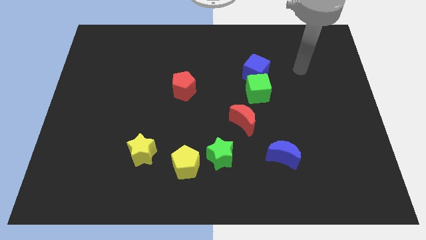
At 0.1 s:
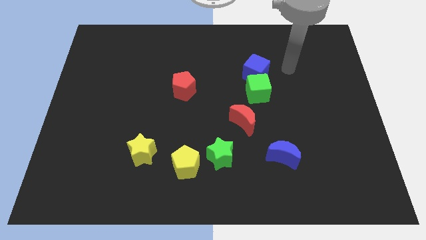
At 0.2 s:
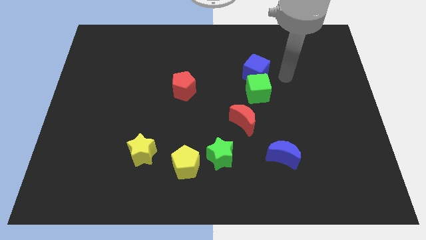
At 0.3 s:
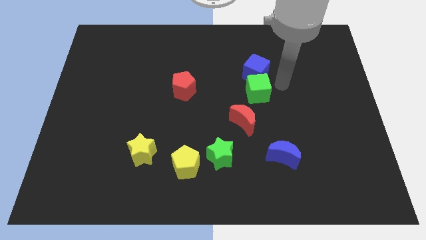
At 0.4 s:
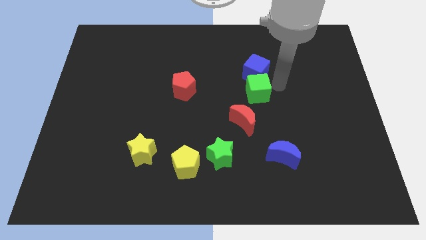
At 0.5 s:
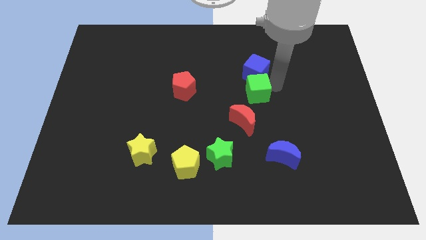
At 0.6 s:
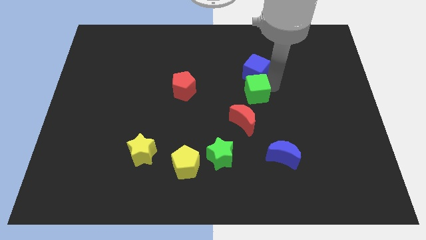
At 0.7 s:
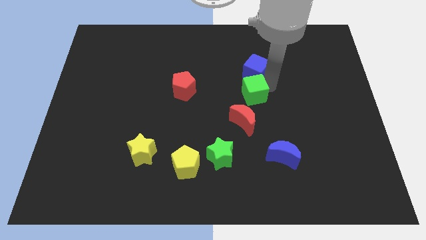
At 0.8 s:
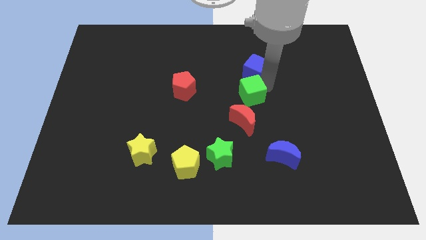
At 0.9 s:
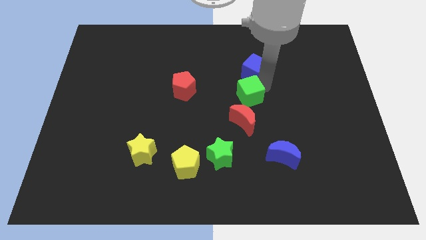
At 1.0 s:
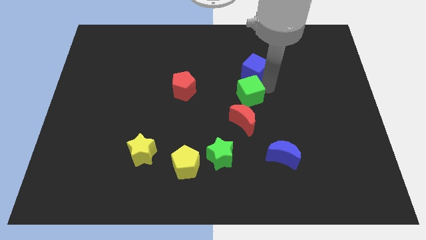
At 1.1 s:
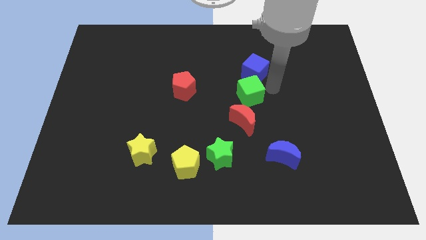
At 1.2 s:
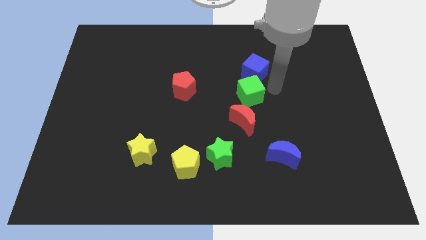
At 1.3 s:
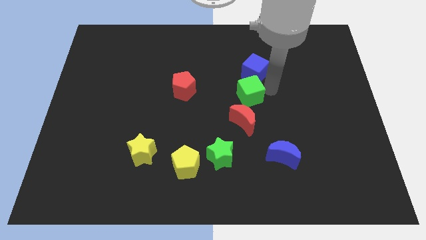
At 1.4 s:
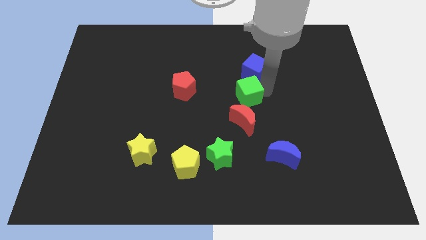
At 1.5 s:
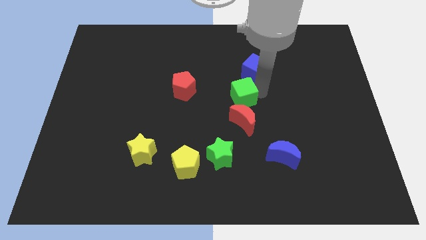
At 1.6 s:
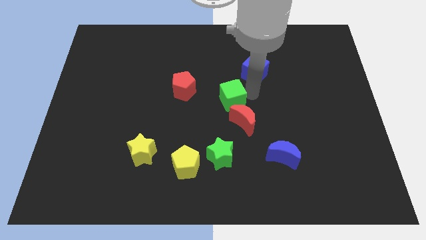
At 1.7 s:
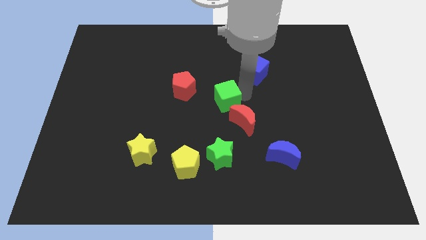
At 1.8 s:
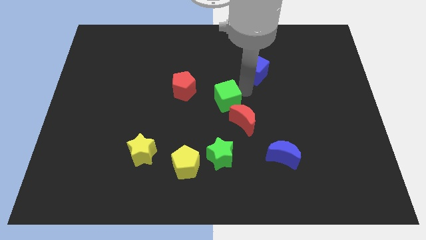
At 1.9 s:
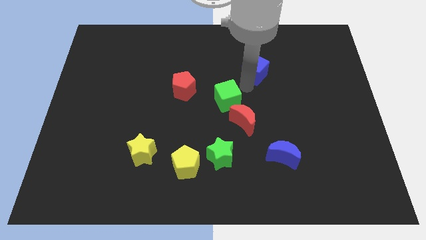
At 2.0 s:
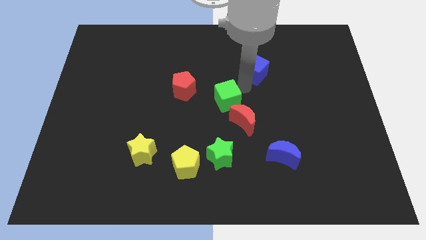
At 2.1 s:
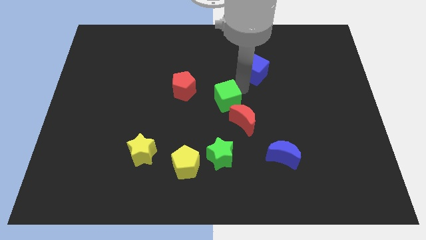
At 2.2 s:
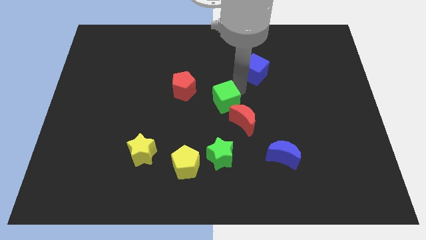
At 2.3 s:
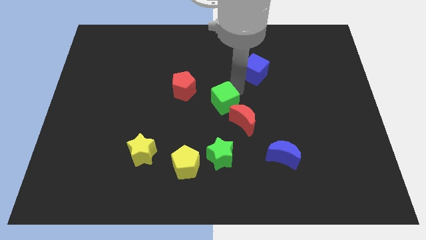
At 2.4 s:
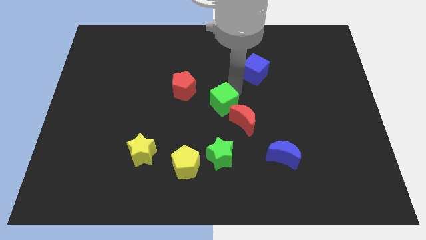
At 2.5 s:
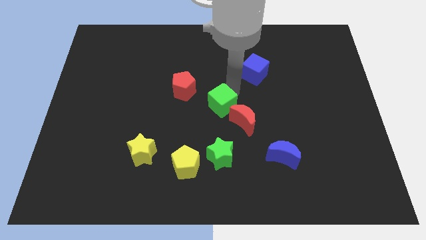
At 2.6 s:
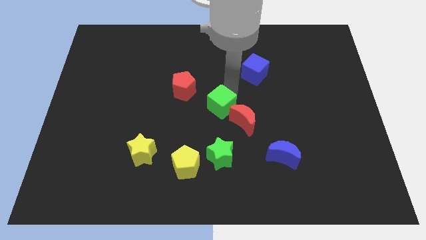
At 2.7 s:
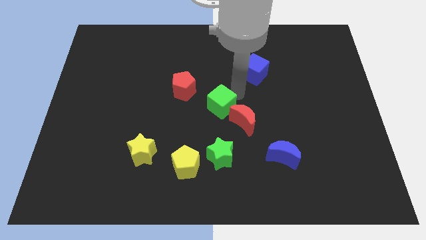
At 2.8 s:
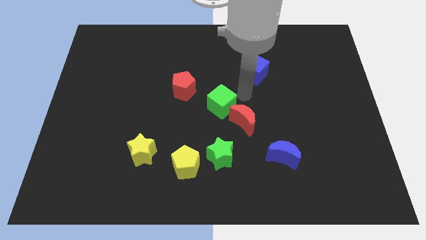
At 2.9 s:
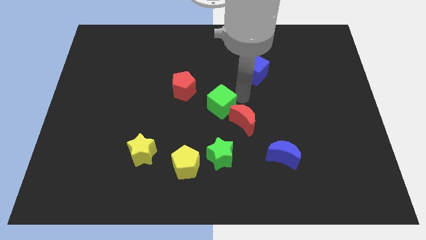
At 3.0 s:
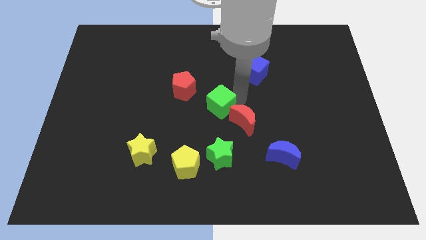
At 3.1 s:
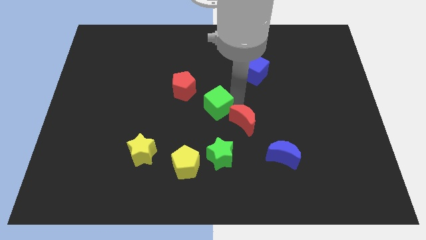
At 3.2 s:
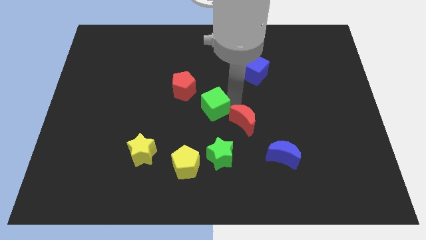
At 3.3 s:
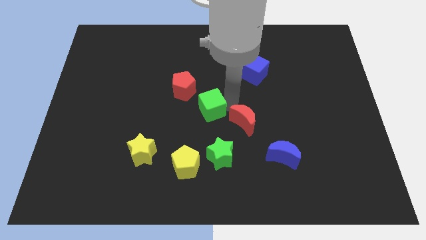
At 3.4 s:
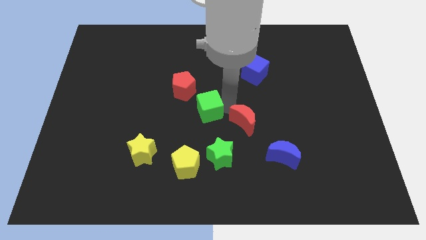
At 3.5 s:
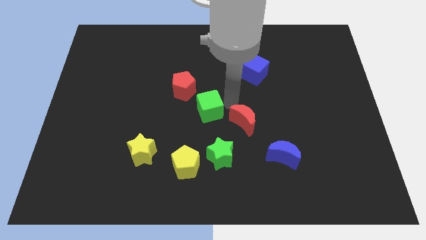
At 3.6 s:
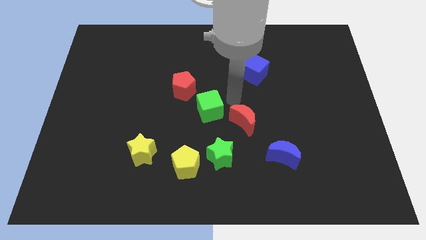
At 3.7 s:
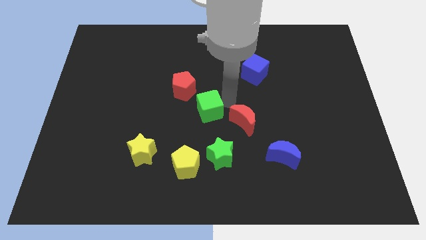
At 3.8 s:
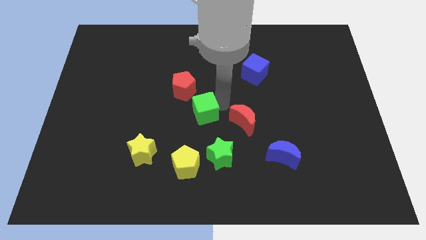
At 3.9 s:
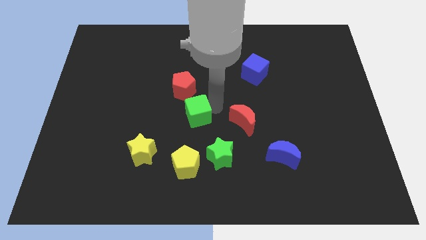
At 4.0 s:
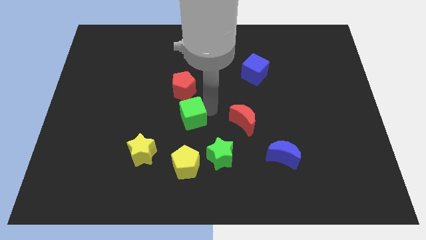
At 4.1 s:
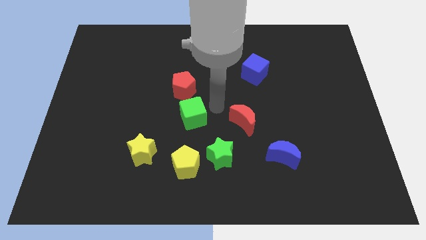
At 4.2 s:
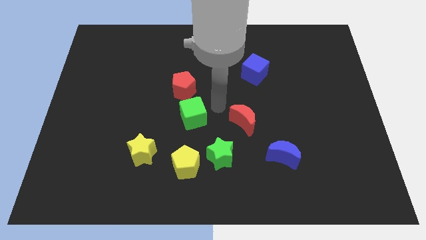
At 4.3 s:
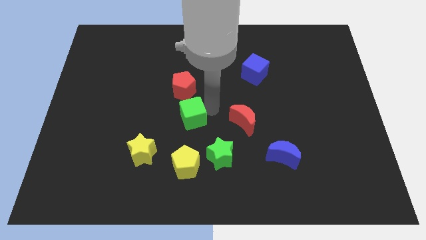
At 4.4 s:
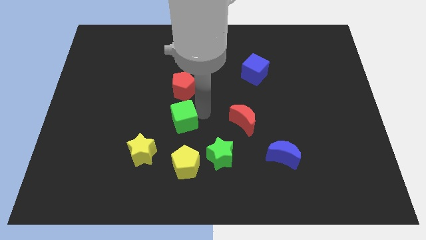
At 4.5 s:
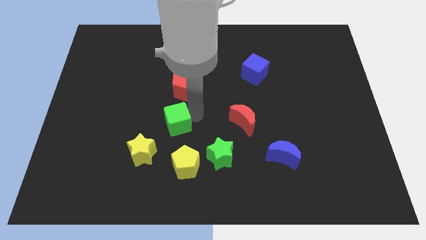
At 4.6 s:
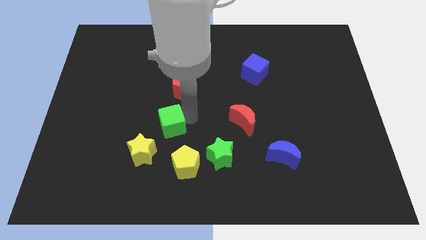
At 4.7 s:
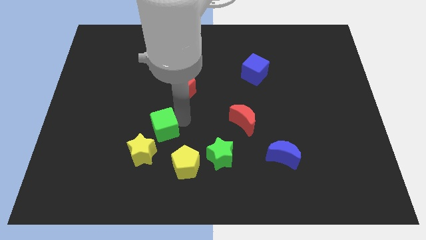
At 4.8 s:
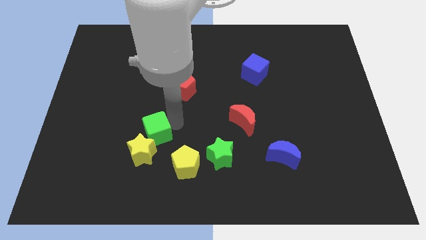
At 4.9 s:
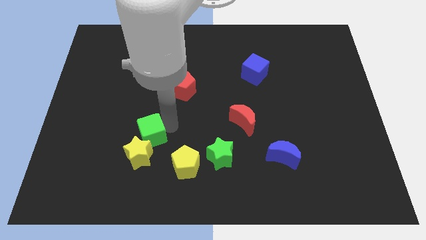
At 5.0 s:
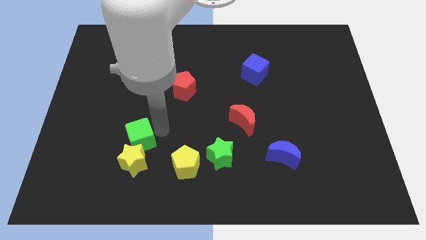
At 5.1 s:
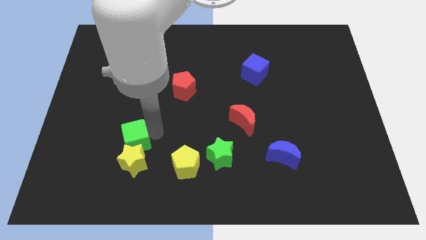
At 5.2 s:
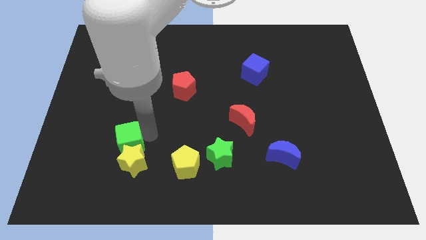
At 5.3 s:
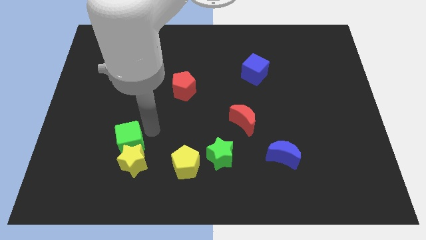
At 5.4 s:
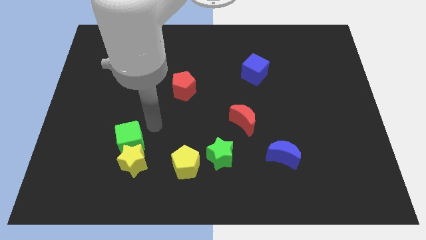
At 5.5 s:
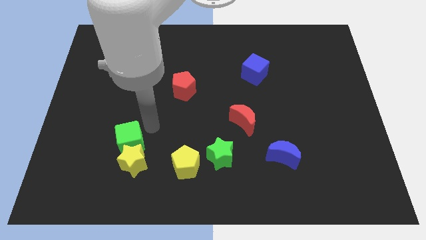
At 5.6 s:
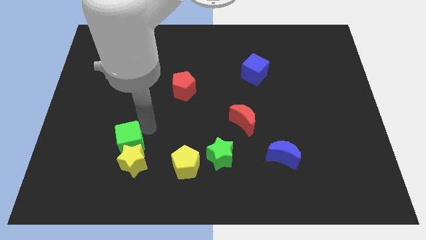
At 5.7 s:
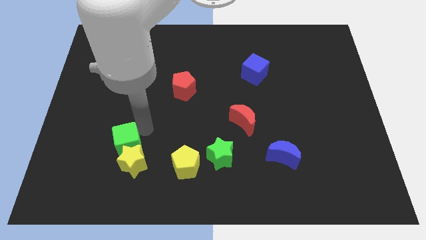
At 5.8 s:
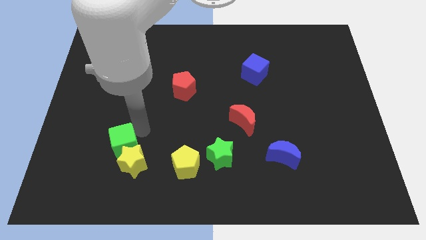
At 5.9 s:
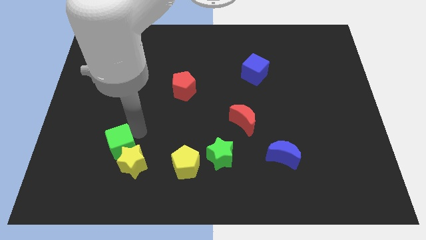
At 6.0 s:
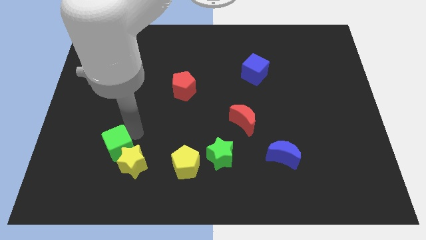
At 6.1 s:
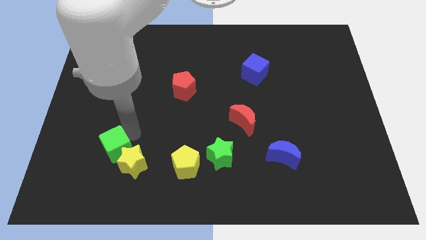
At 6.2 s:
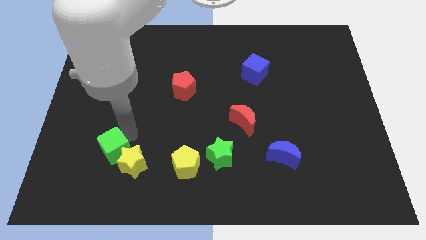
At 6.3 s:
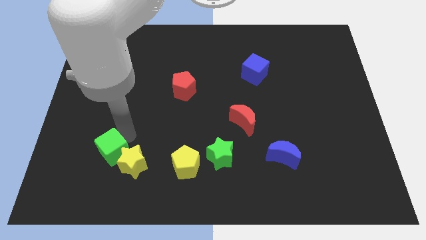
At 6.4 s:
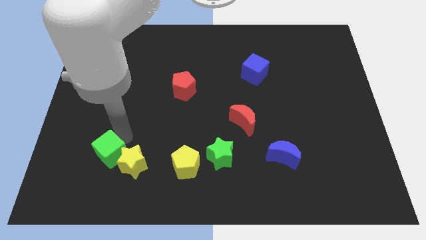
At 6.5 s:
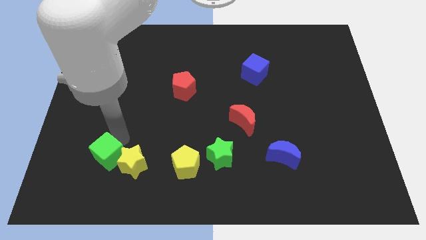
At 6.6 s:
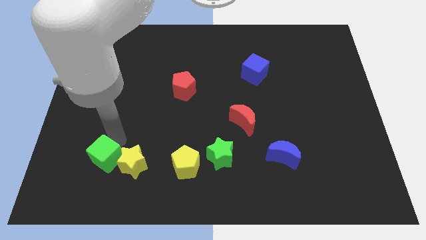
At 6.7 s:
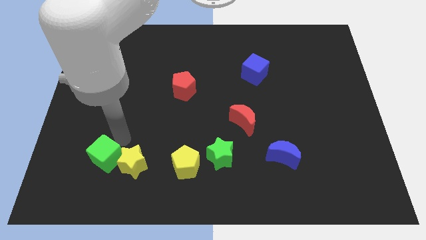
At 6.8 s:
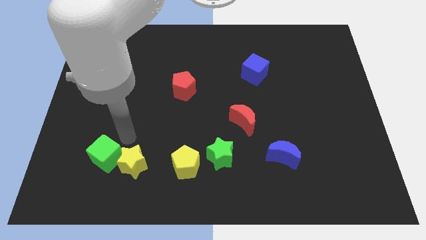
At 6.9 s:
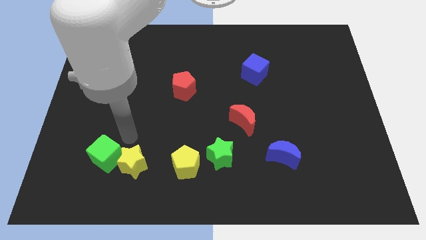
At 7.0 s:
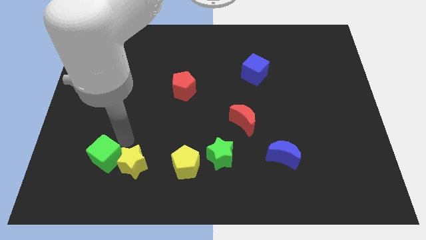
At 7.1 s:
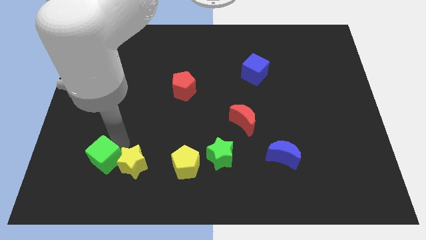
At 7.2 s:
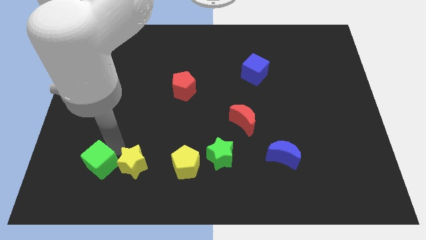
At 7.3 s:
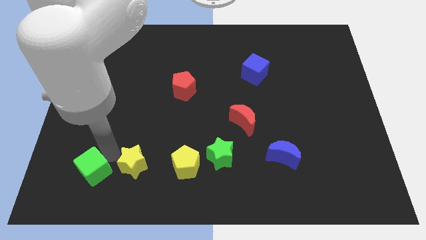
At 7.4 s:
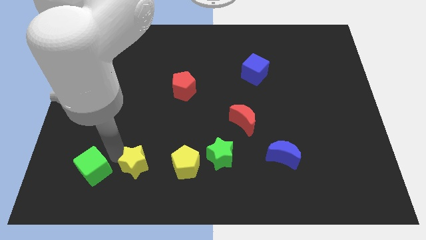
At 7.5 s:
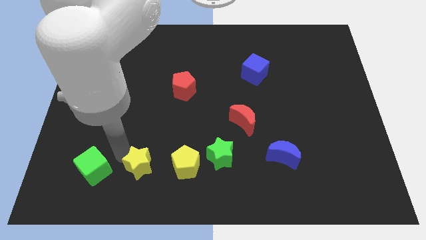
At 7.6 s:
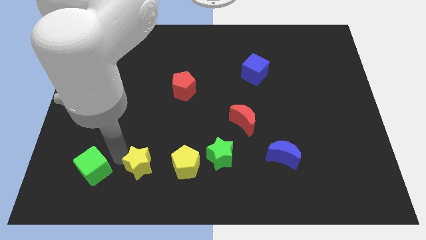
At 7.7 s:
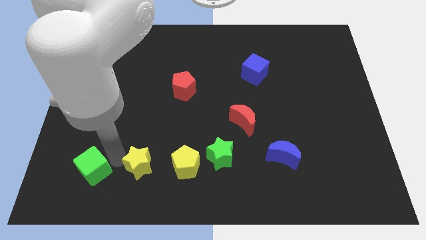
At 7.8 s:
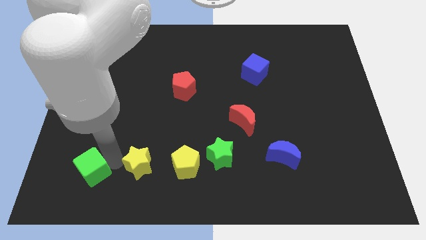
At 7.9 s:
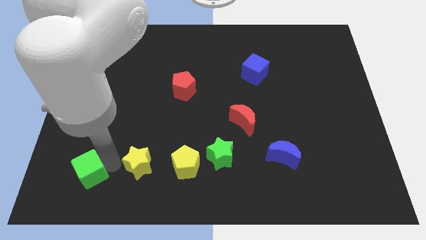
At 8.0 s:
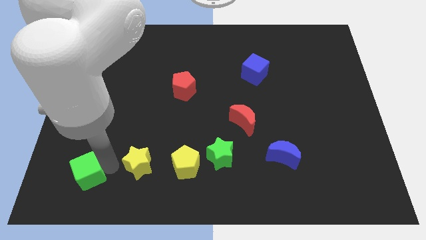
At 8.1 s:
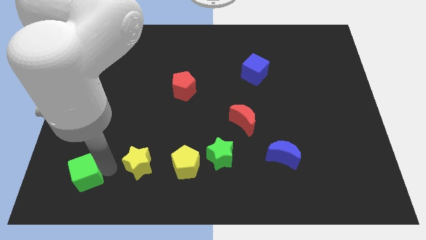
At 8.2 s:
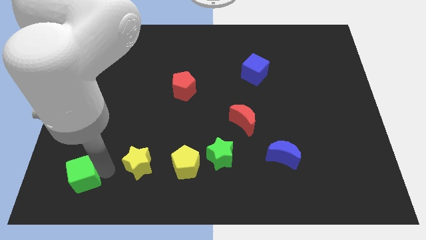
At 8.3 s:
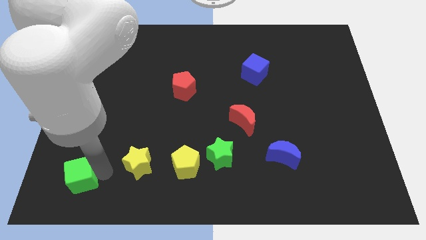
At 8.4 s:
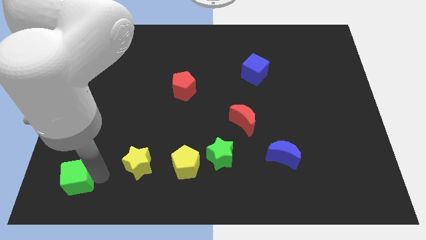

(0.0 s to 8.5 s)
put the green cube to the bottom left of the board
